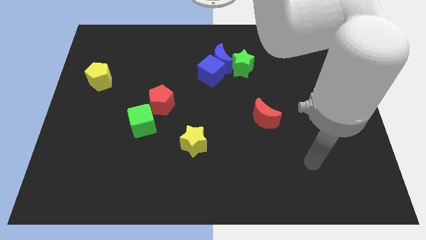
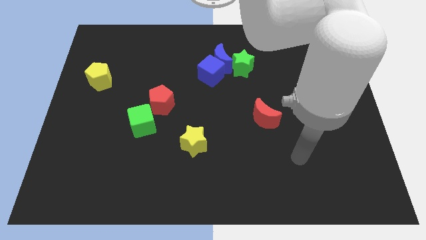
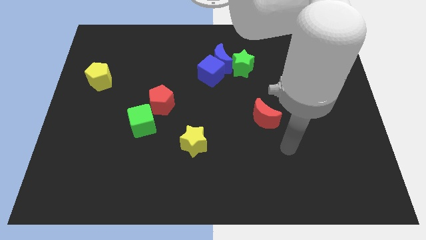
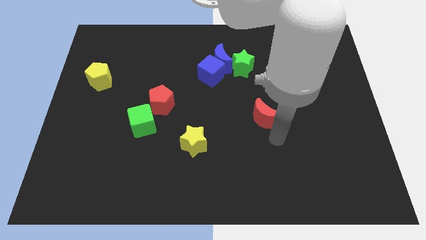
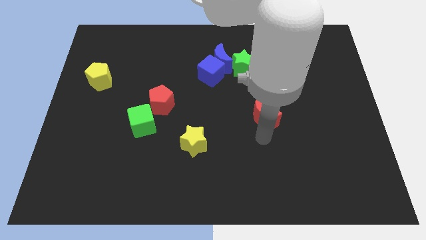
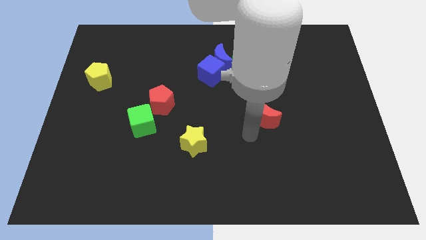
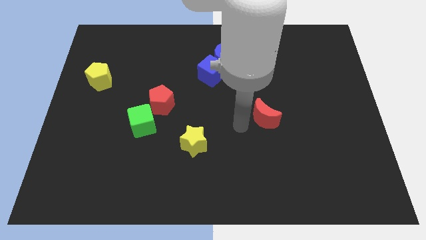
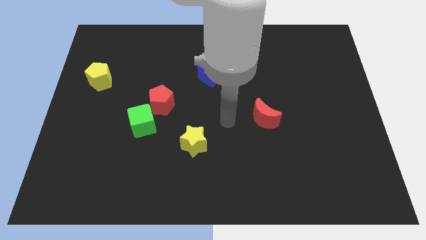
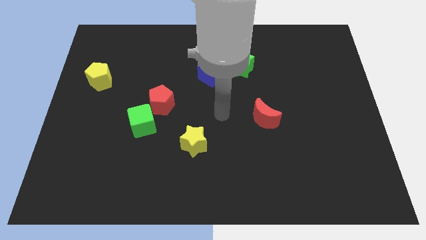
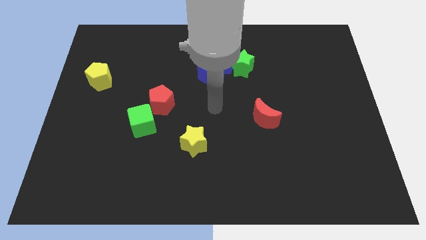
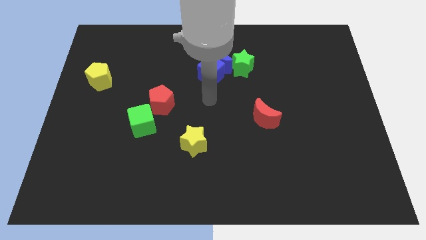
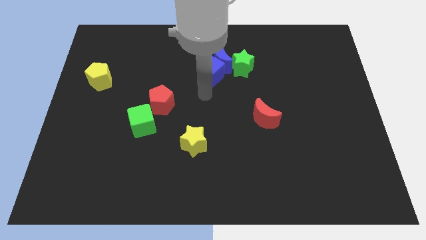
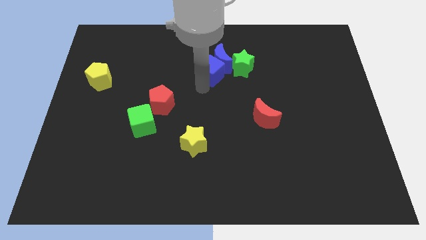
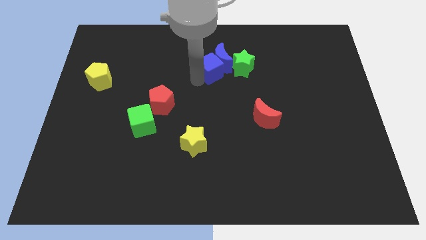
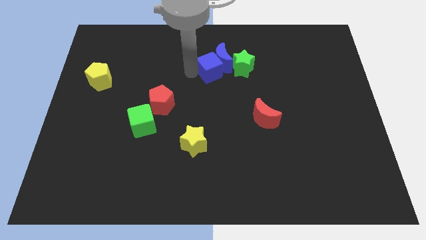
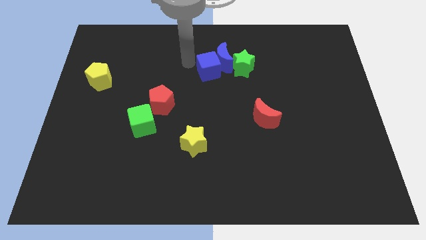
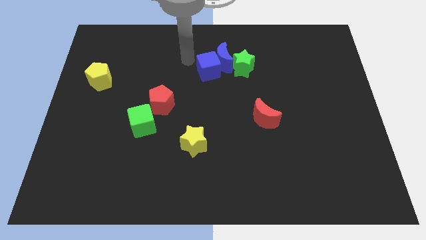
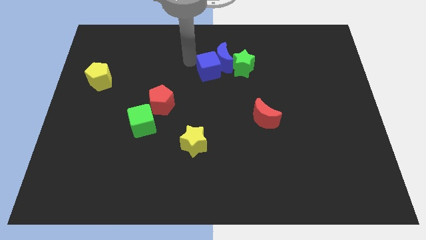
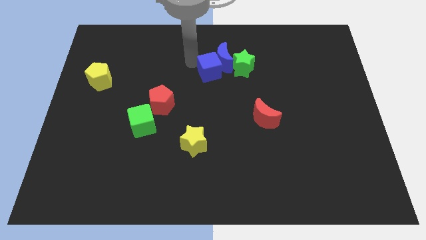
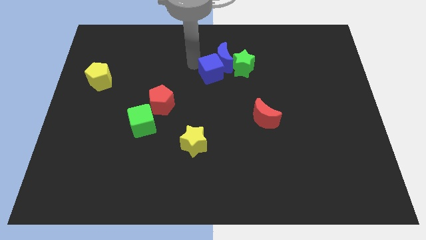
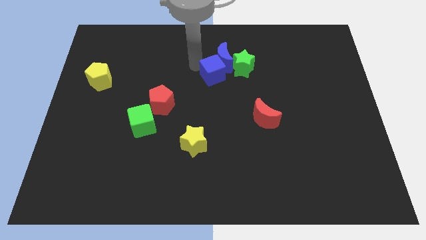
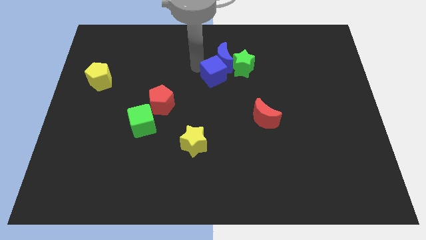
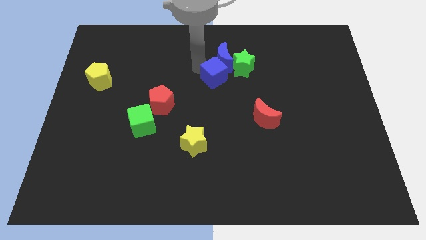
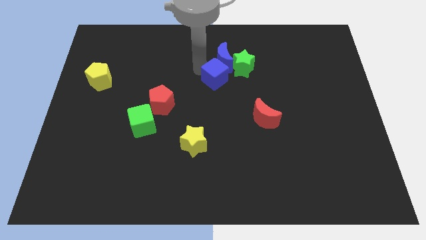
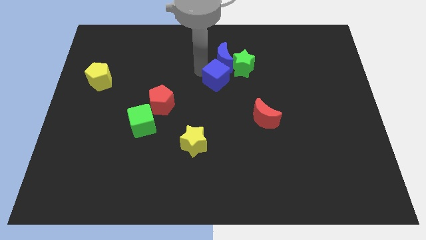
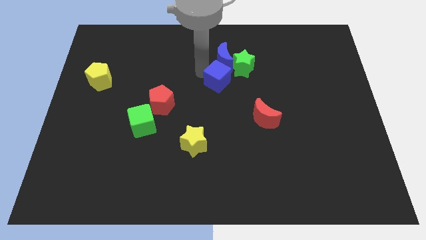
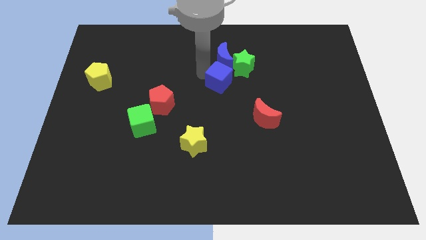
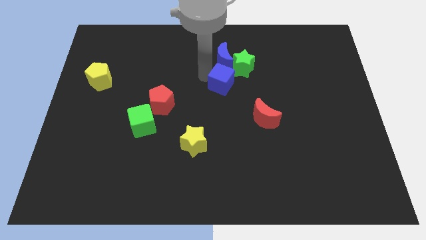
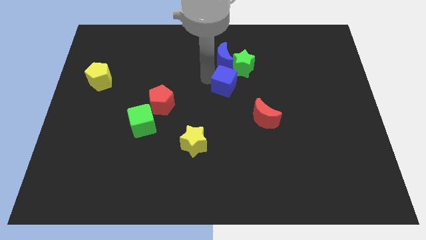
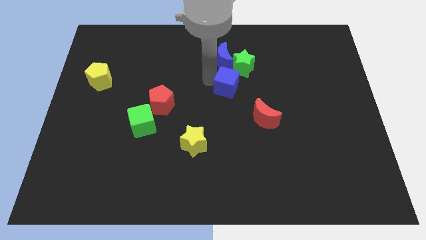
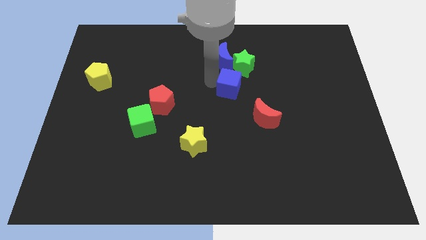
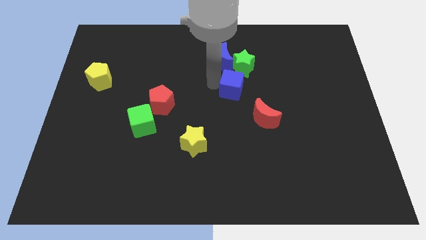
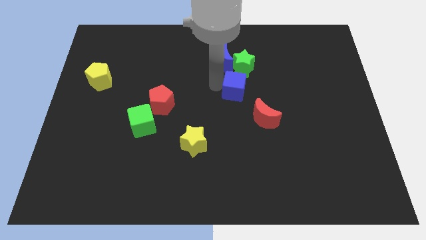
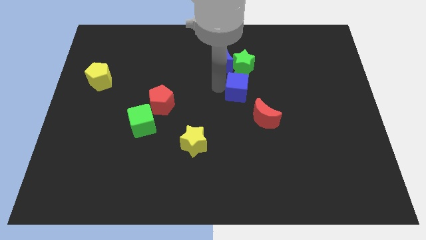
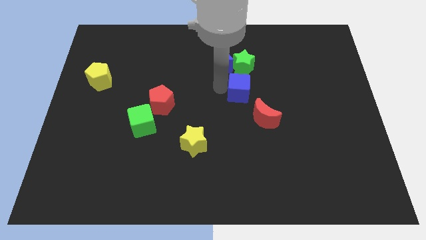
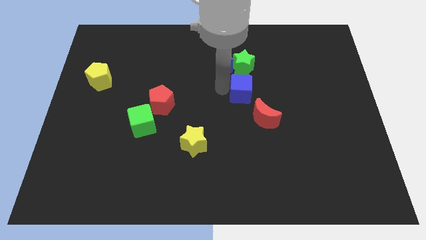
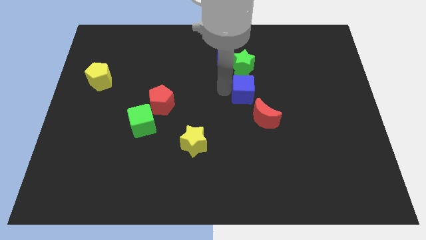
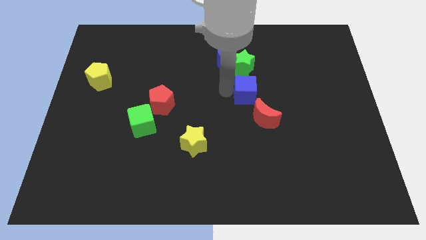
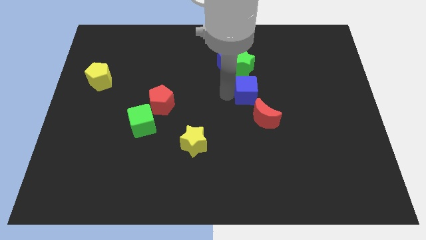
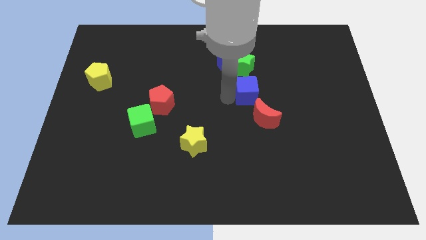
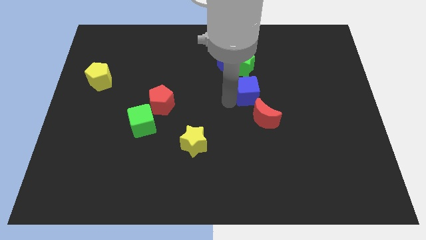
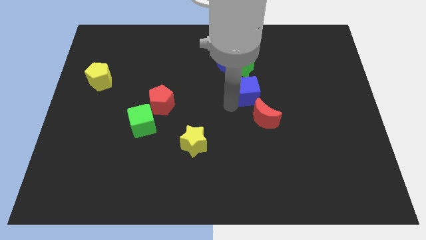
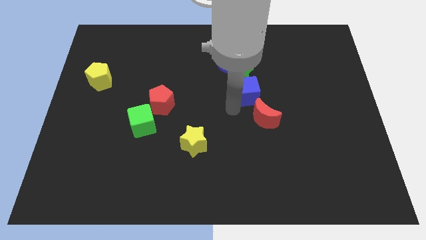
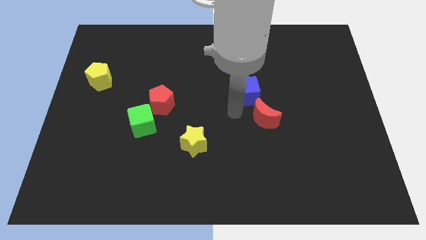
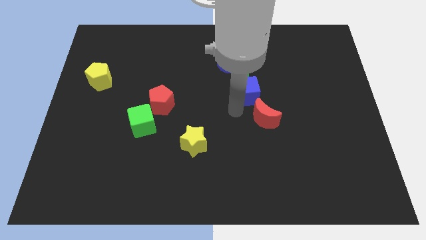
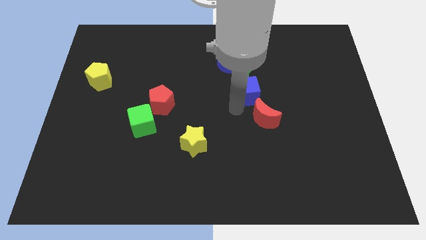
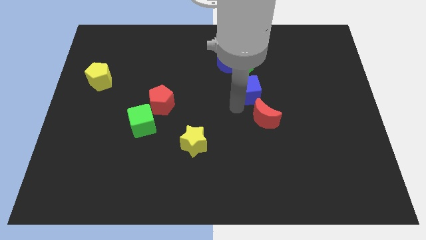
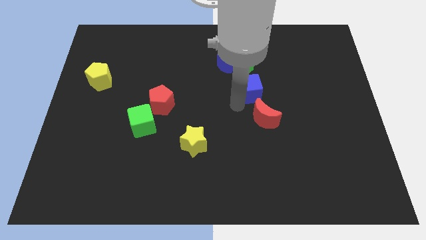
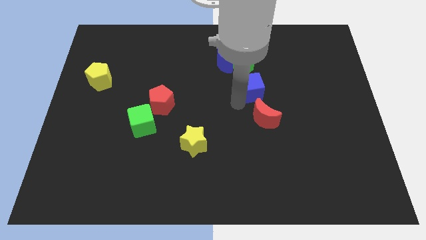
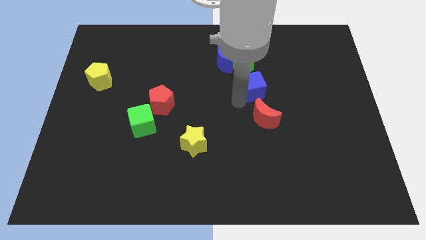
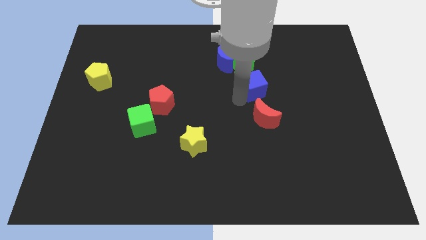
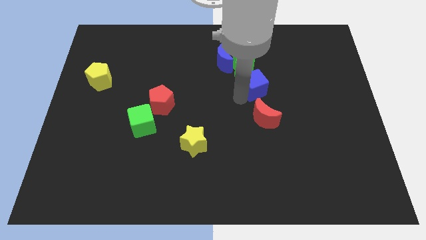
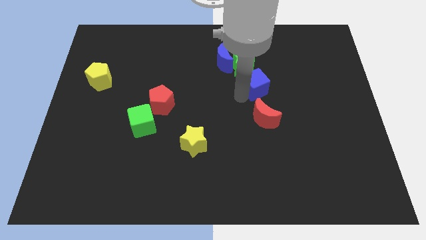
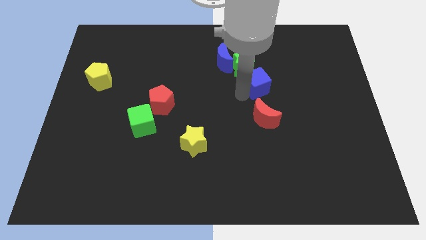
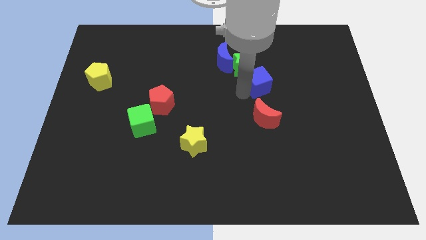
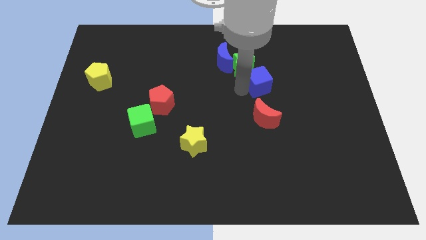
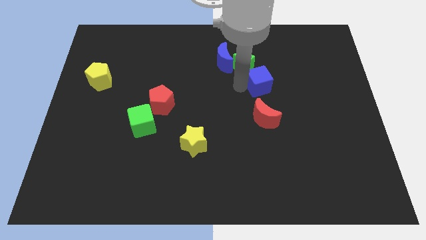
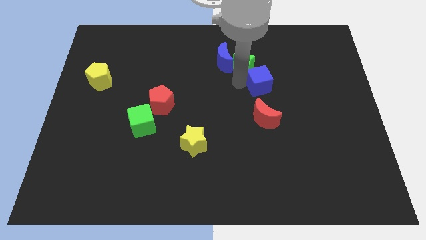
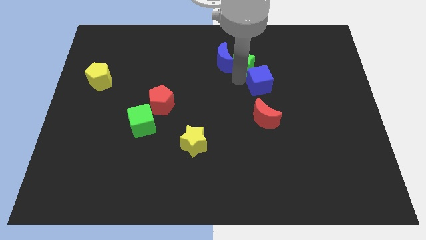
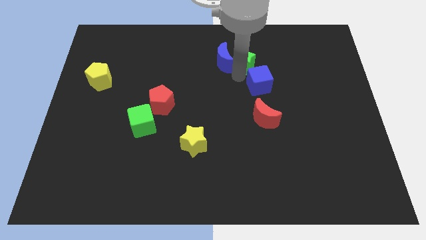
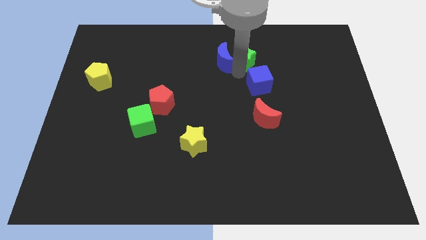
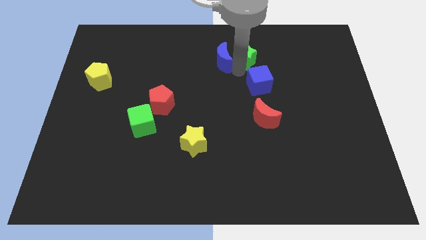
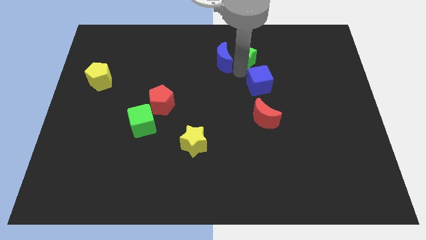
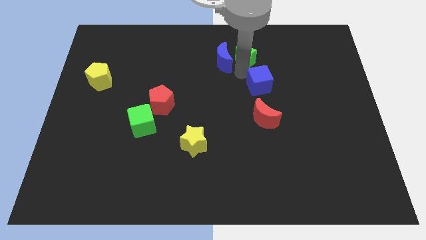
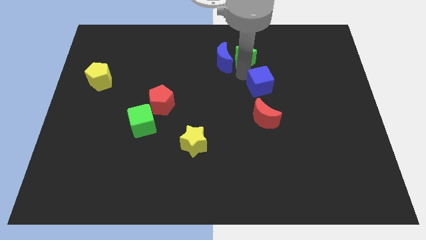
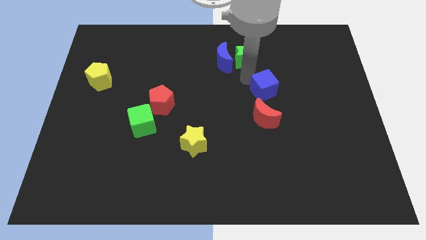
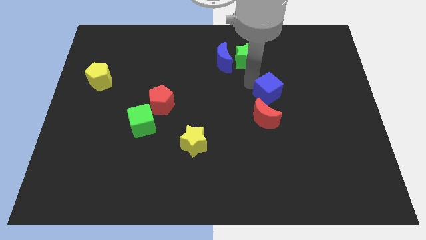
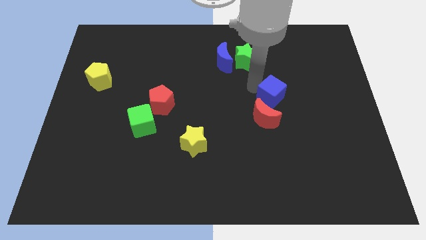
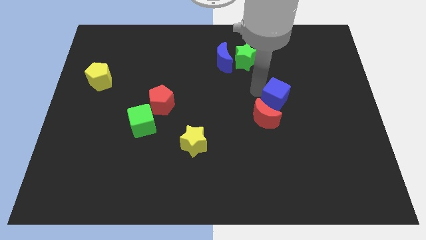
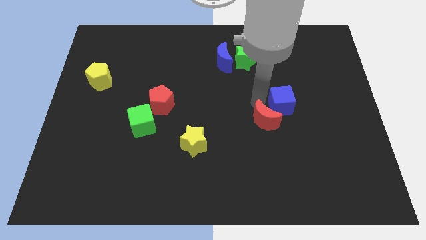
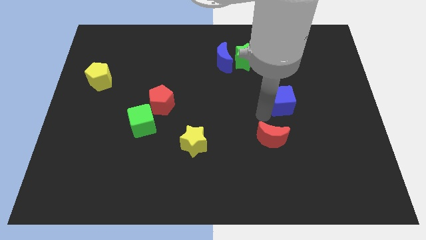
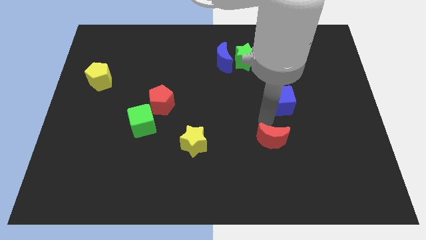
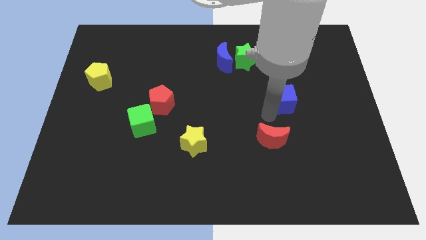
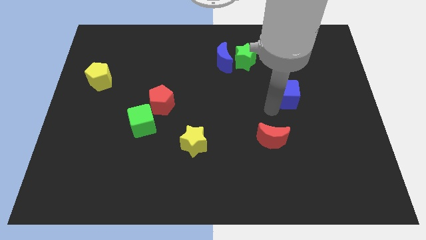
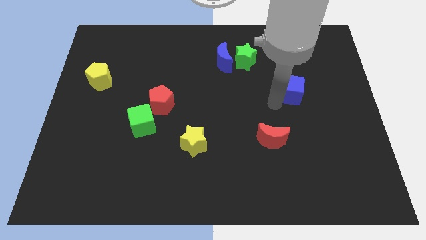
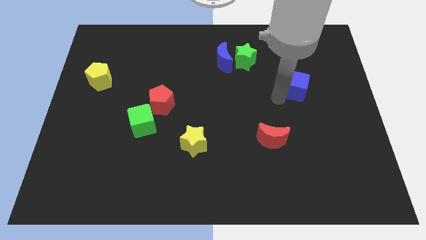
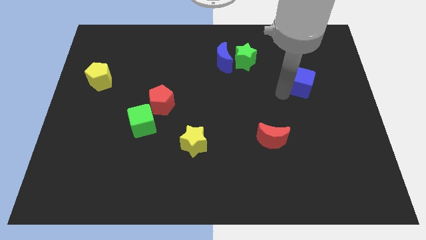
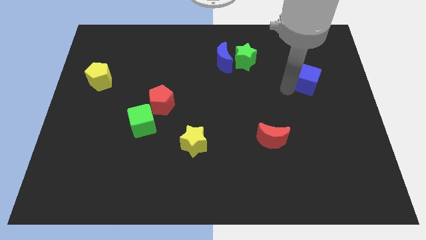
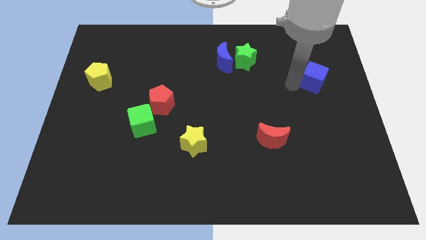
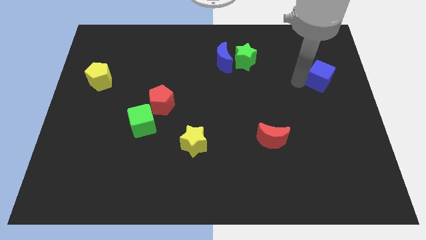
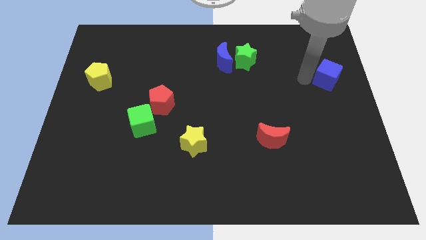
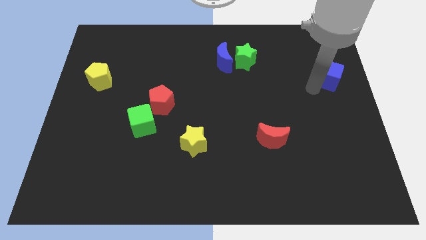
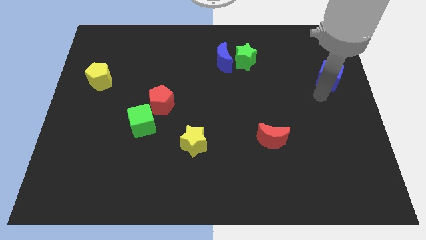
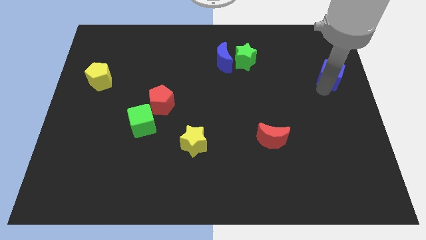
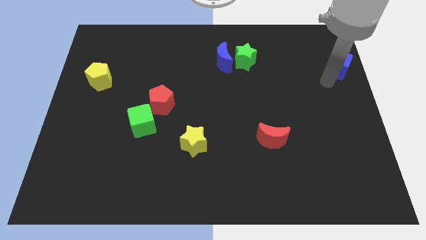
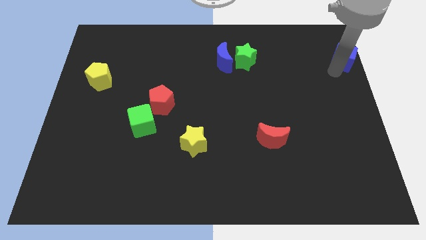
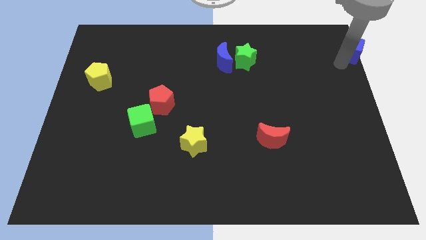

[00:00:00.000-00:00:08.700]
push the blue cube to the top right of the board
